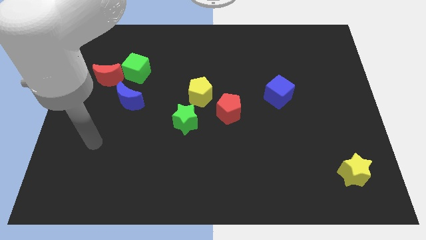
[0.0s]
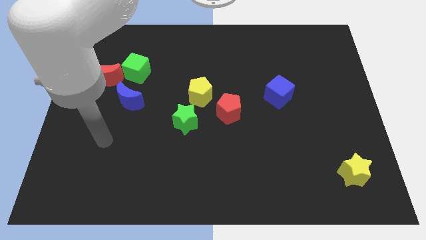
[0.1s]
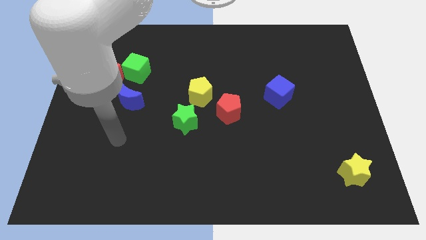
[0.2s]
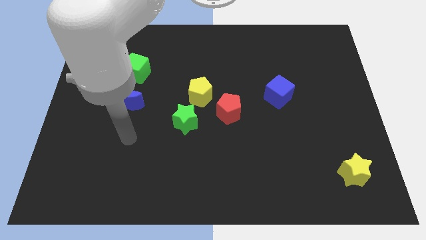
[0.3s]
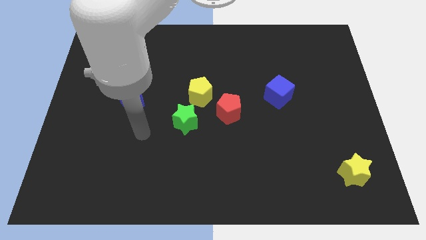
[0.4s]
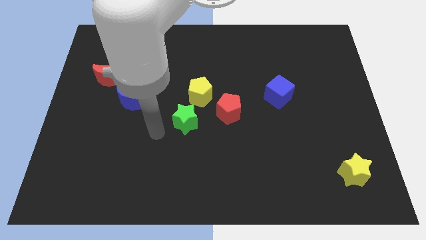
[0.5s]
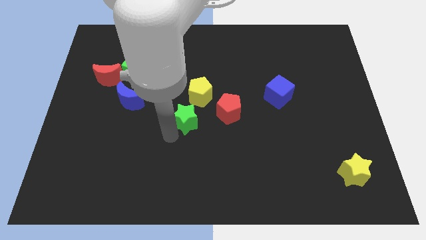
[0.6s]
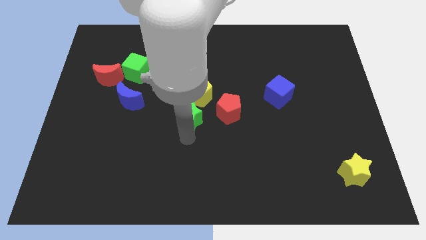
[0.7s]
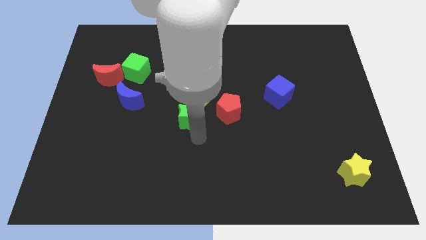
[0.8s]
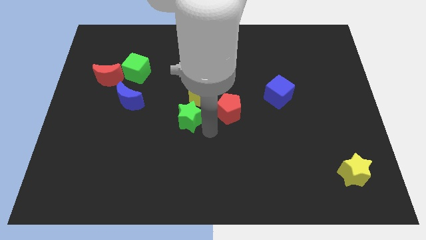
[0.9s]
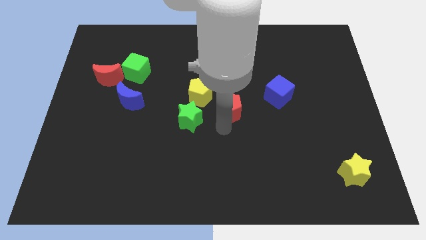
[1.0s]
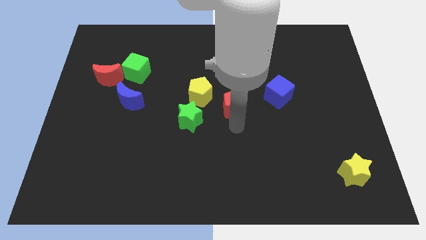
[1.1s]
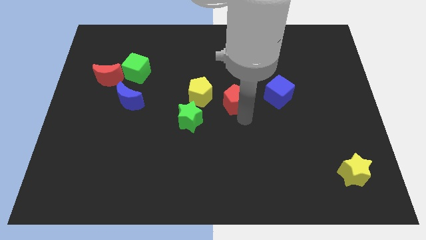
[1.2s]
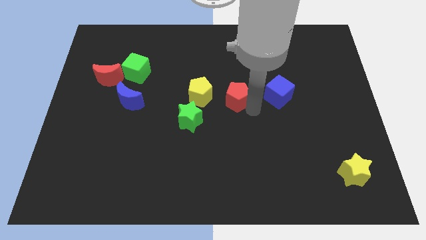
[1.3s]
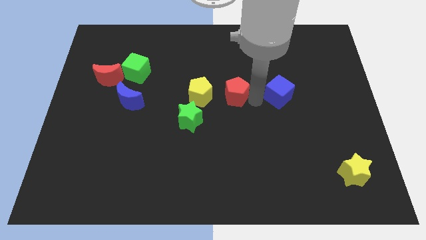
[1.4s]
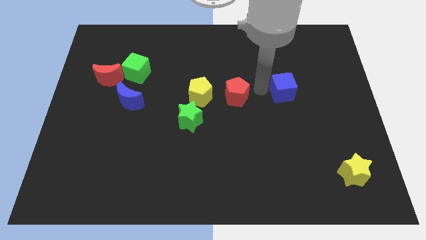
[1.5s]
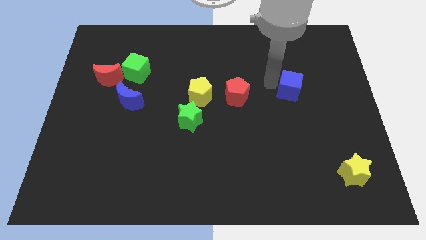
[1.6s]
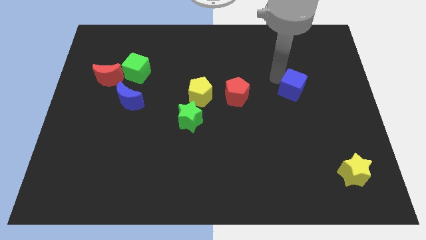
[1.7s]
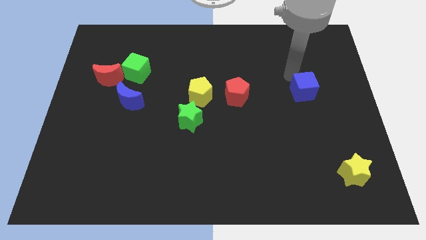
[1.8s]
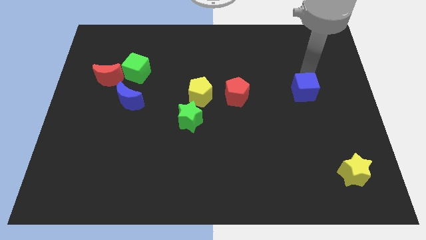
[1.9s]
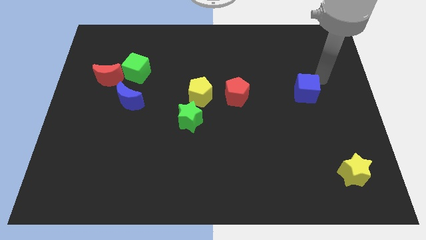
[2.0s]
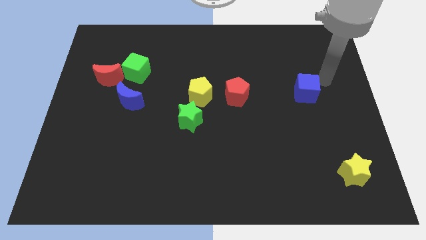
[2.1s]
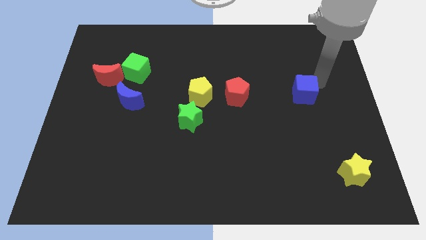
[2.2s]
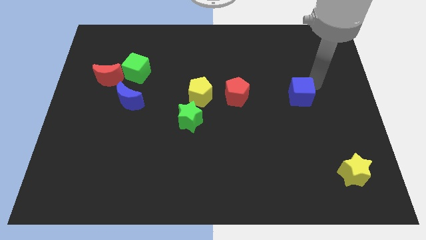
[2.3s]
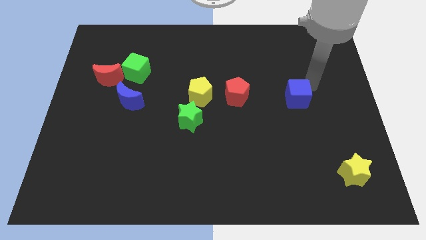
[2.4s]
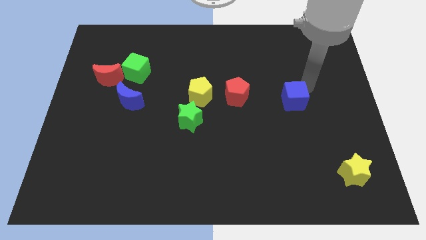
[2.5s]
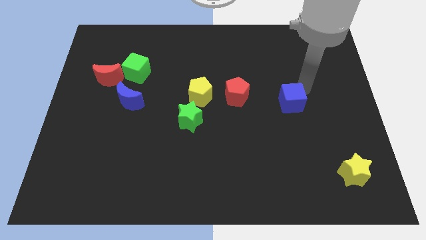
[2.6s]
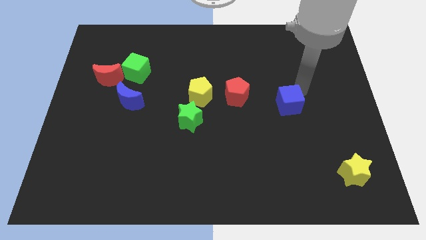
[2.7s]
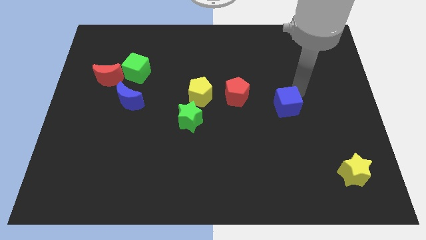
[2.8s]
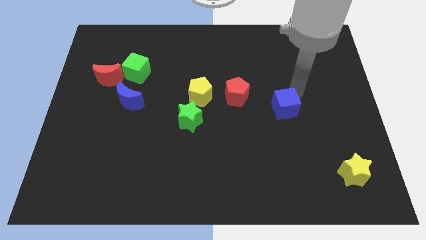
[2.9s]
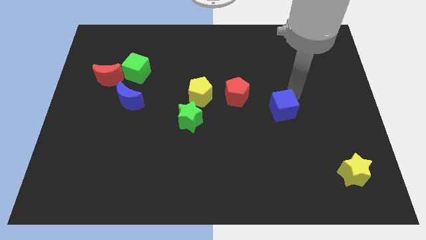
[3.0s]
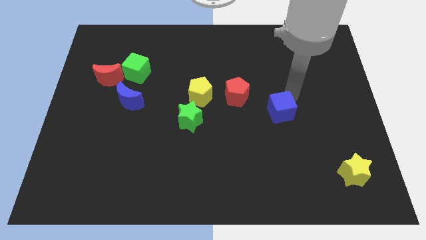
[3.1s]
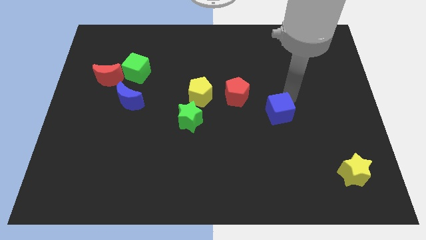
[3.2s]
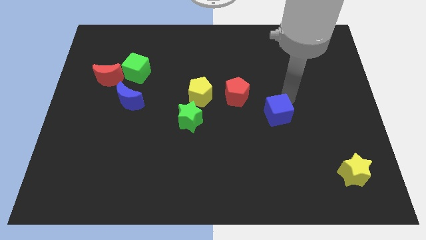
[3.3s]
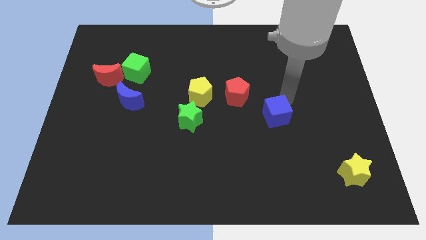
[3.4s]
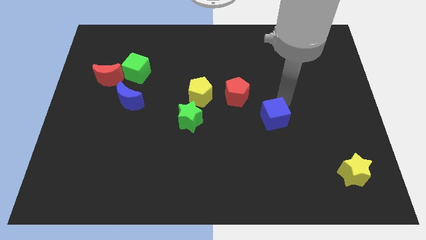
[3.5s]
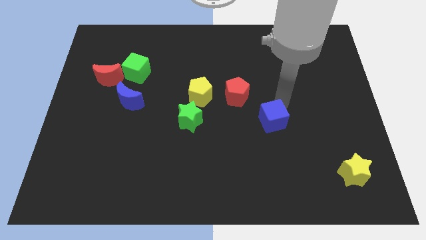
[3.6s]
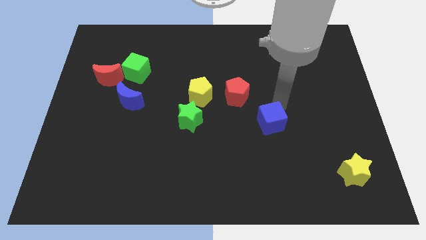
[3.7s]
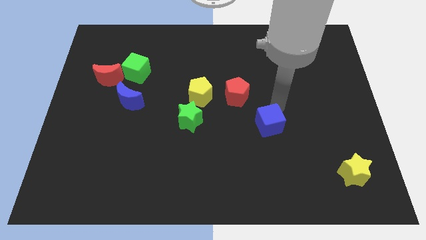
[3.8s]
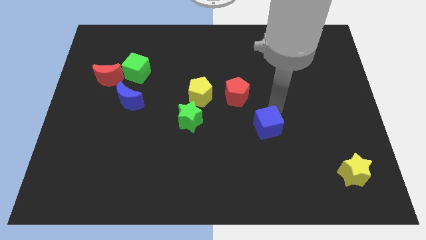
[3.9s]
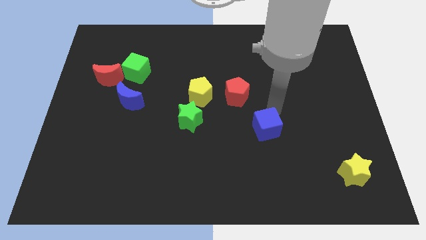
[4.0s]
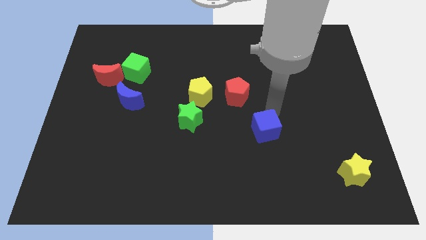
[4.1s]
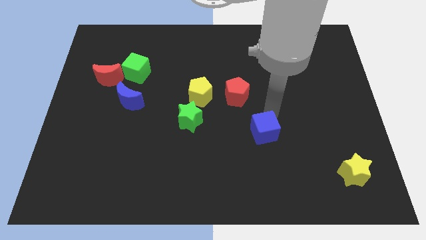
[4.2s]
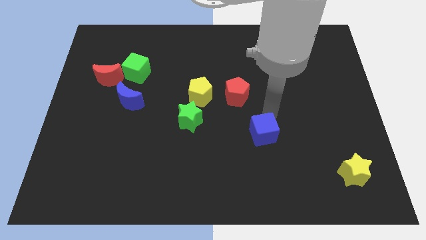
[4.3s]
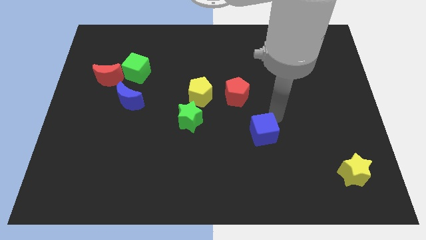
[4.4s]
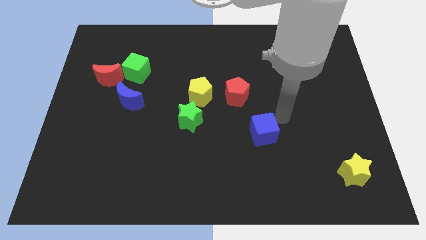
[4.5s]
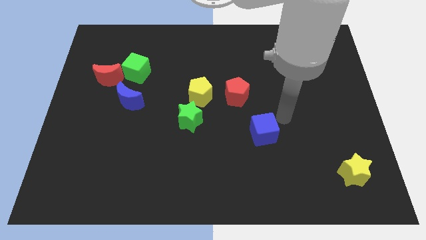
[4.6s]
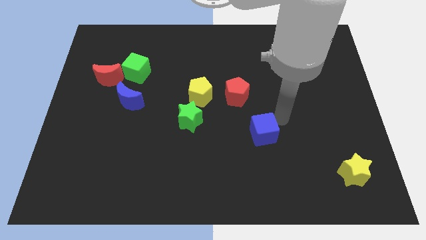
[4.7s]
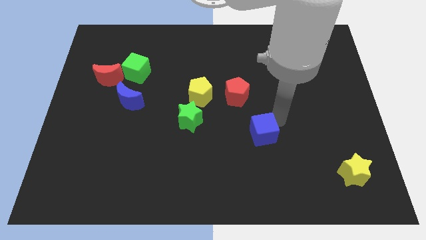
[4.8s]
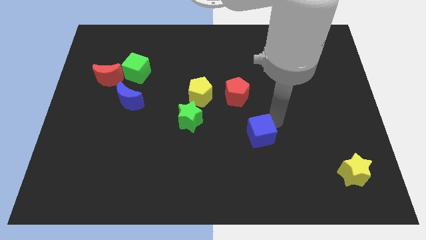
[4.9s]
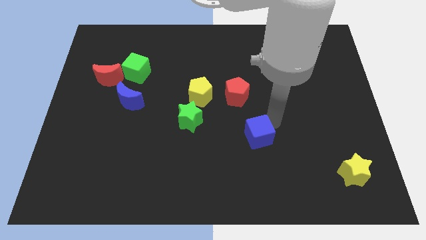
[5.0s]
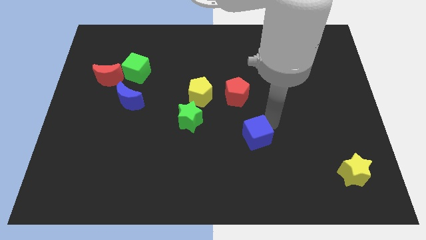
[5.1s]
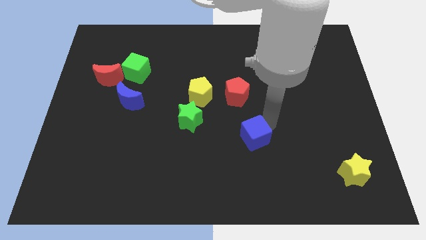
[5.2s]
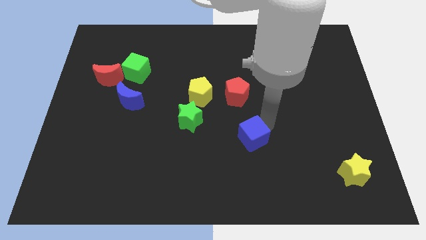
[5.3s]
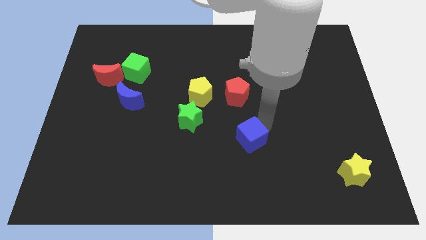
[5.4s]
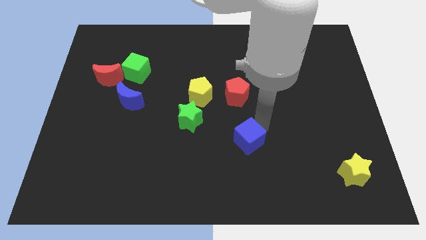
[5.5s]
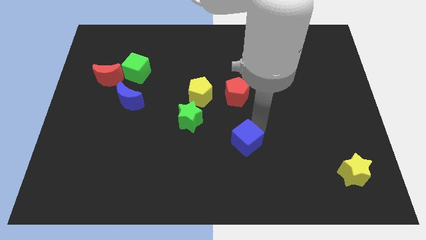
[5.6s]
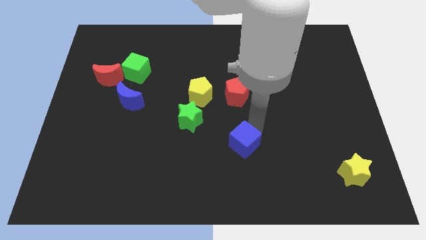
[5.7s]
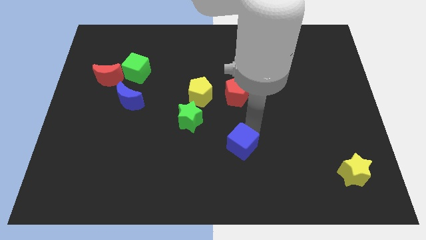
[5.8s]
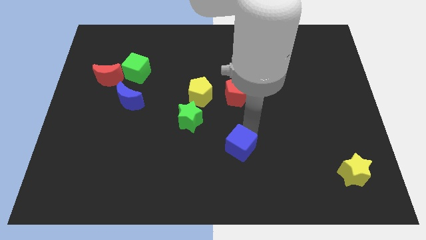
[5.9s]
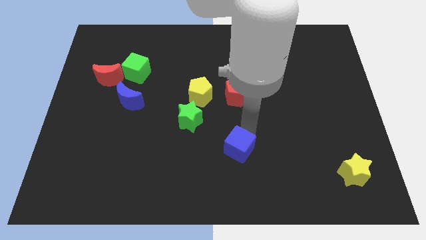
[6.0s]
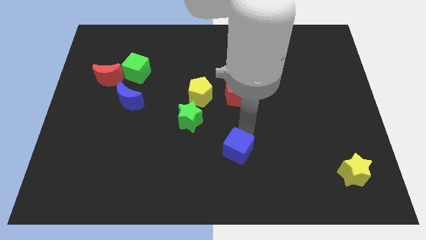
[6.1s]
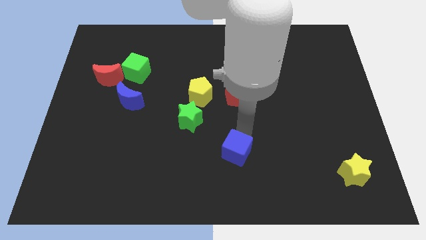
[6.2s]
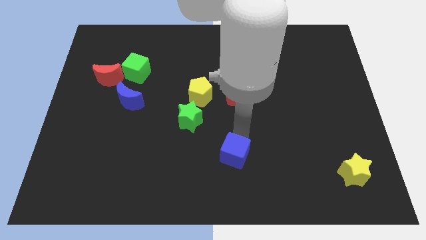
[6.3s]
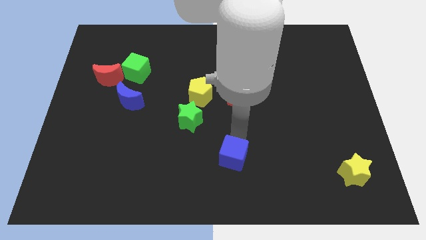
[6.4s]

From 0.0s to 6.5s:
move the blue cube to the bottom side
